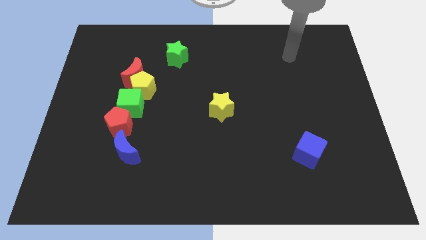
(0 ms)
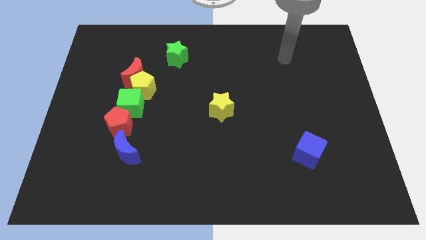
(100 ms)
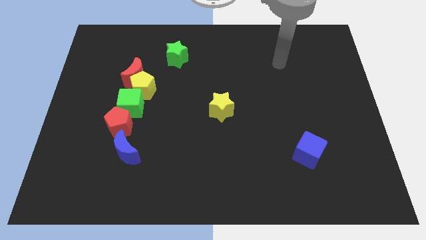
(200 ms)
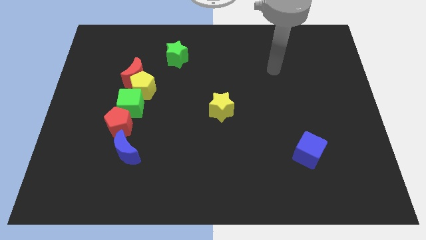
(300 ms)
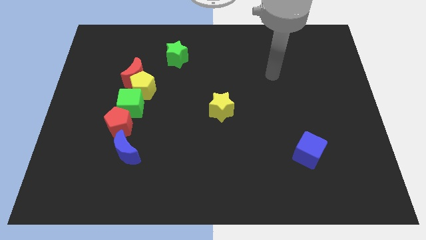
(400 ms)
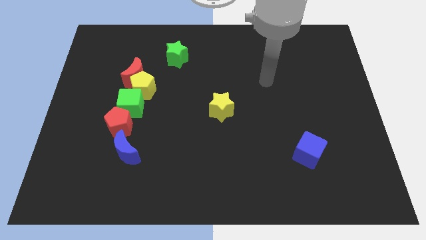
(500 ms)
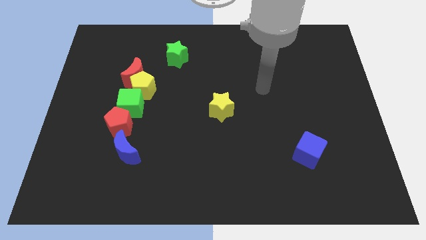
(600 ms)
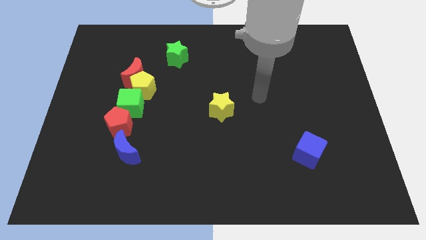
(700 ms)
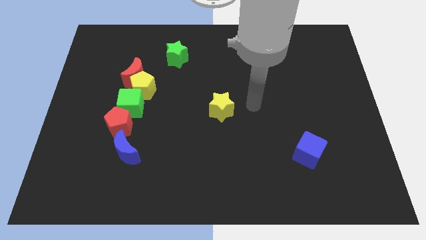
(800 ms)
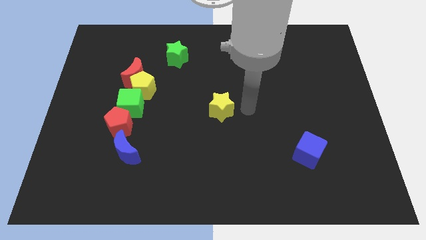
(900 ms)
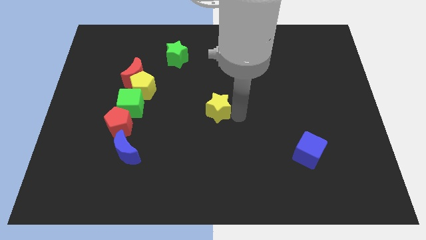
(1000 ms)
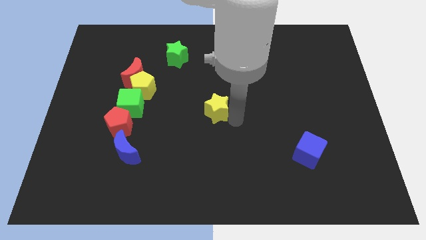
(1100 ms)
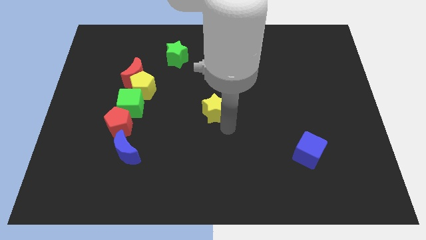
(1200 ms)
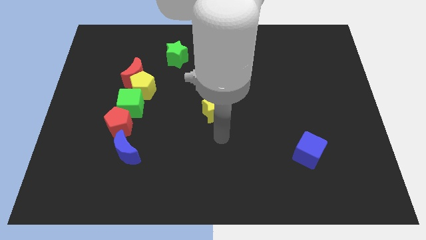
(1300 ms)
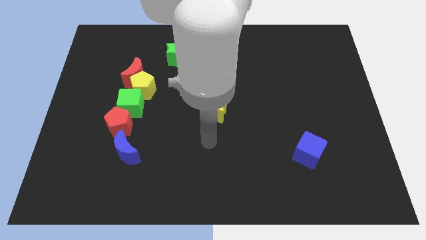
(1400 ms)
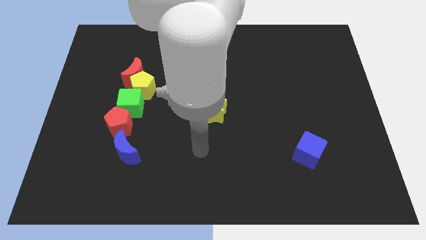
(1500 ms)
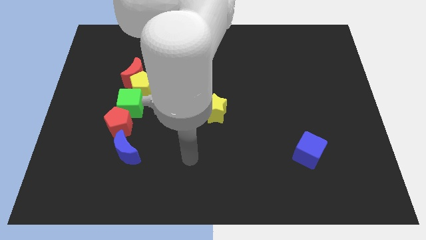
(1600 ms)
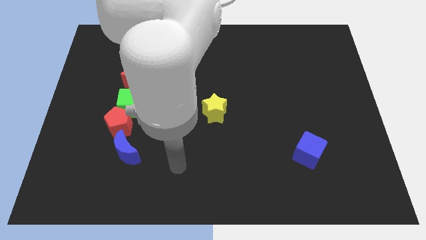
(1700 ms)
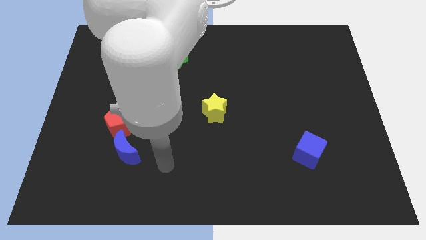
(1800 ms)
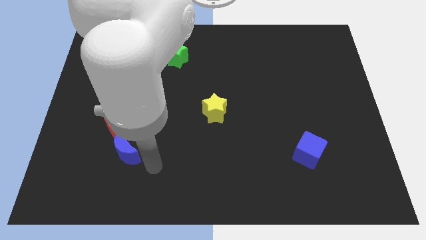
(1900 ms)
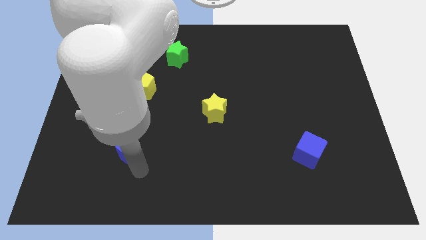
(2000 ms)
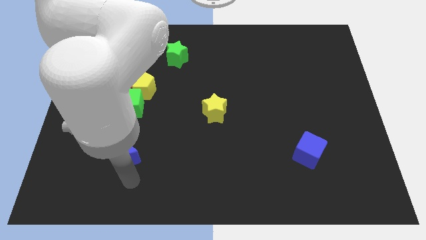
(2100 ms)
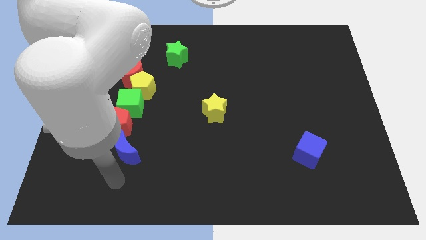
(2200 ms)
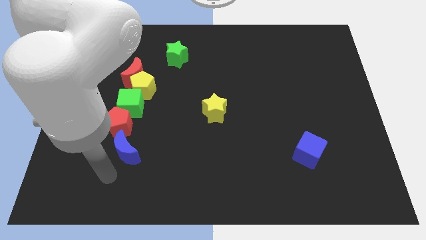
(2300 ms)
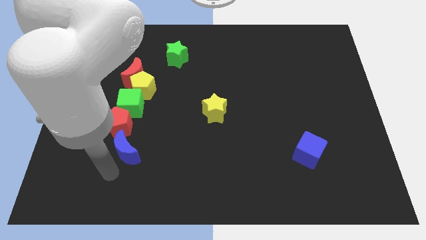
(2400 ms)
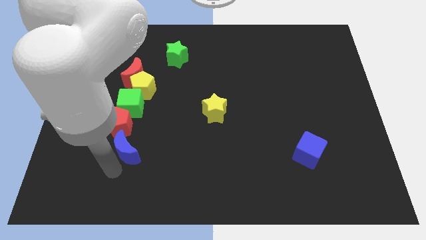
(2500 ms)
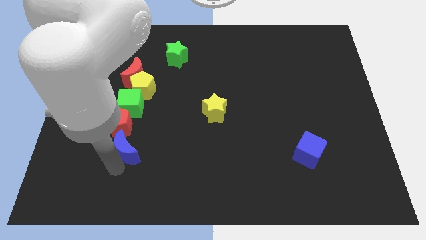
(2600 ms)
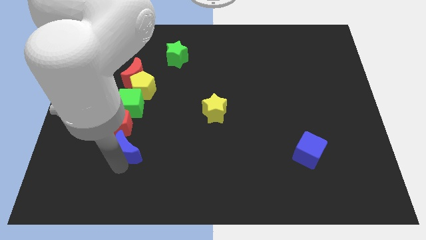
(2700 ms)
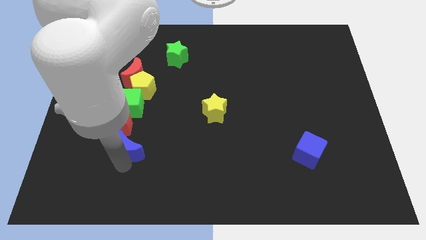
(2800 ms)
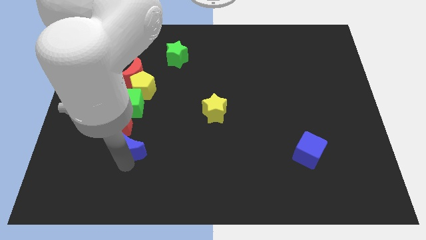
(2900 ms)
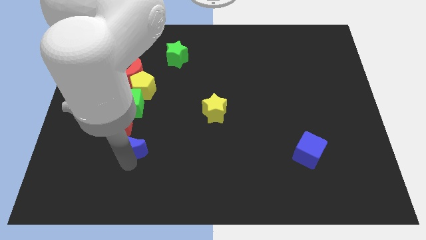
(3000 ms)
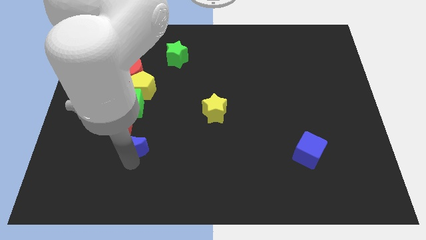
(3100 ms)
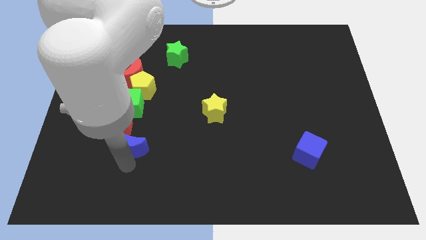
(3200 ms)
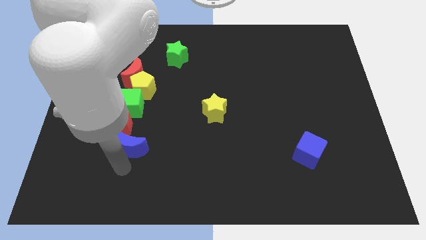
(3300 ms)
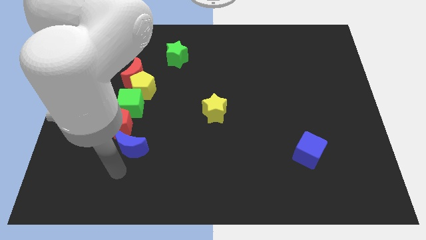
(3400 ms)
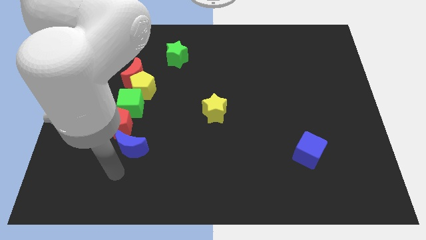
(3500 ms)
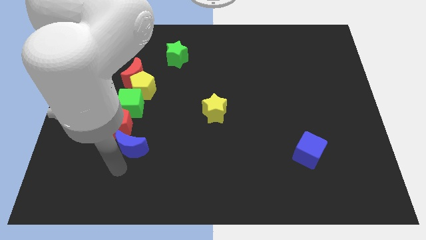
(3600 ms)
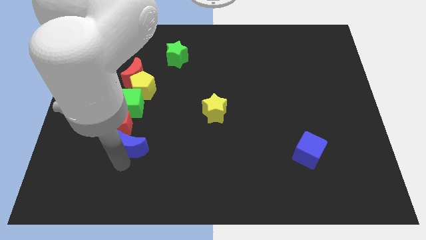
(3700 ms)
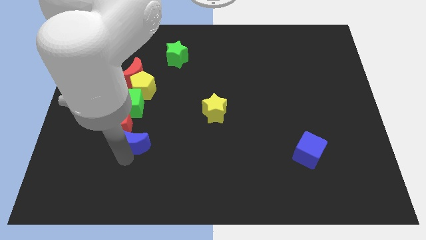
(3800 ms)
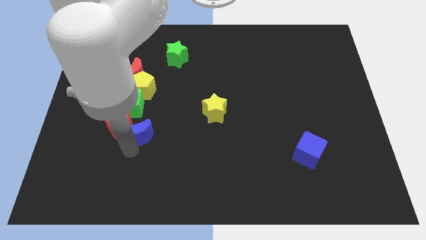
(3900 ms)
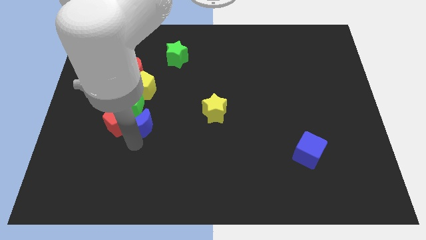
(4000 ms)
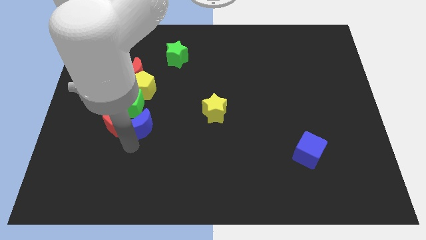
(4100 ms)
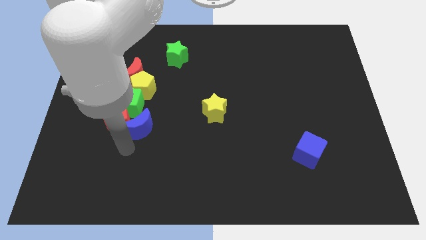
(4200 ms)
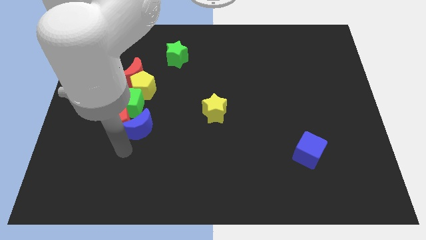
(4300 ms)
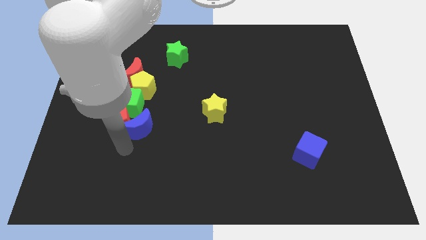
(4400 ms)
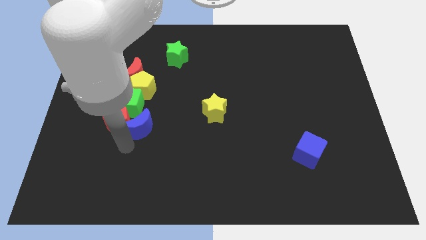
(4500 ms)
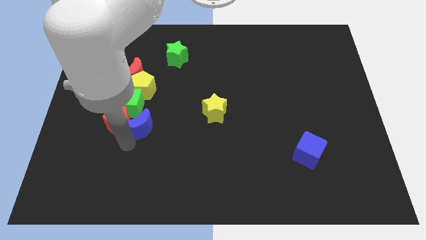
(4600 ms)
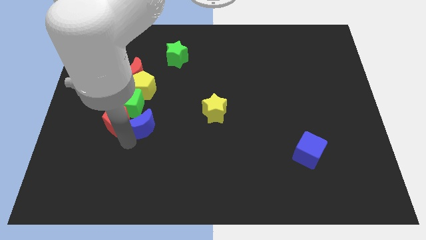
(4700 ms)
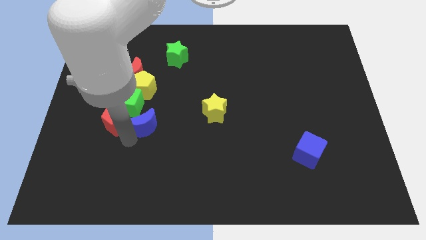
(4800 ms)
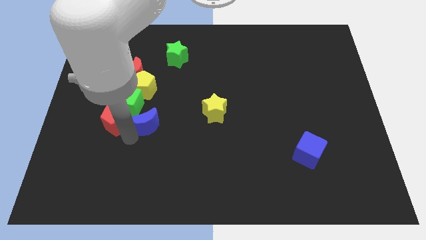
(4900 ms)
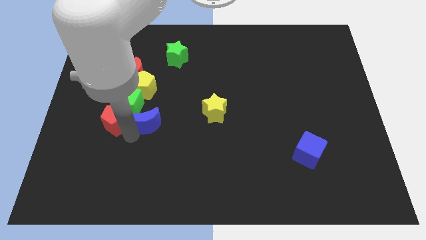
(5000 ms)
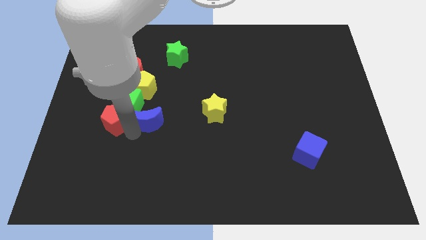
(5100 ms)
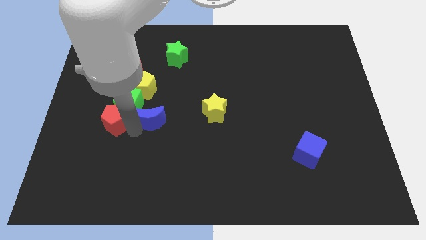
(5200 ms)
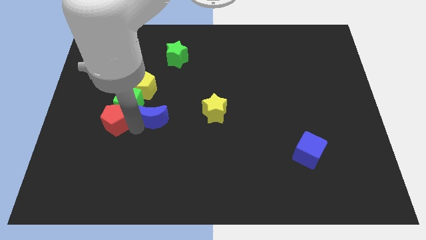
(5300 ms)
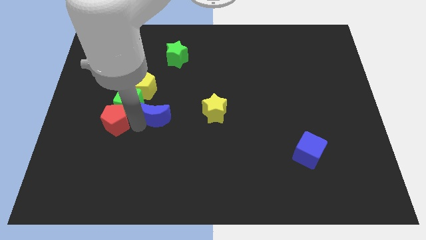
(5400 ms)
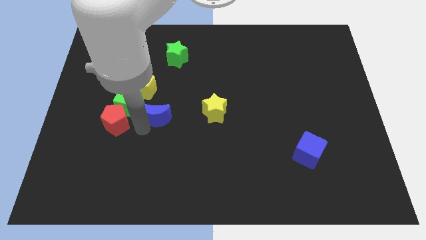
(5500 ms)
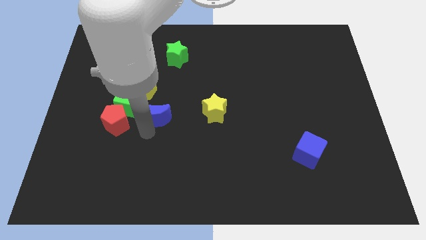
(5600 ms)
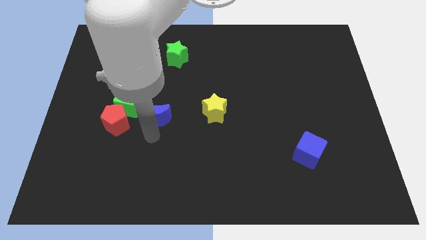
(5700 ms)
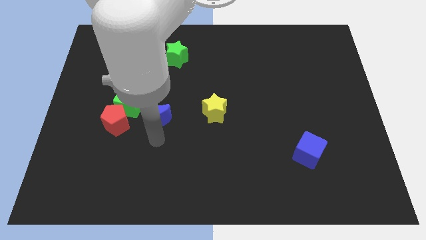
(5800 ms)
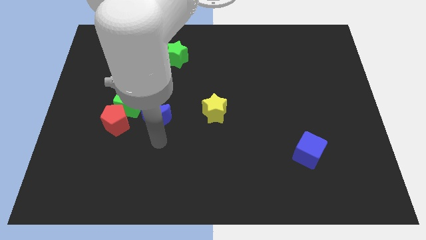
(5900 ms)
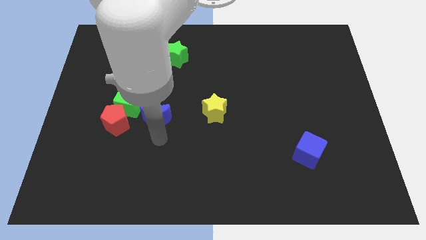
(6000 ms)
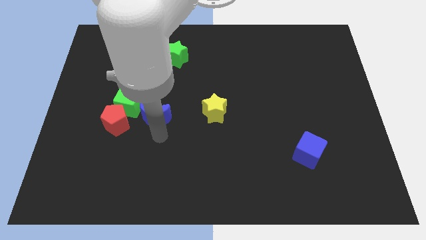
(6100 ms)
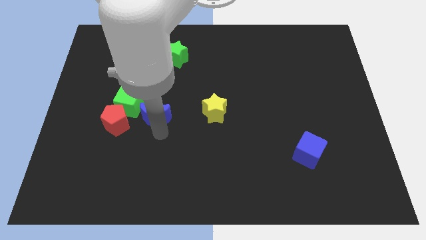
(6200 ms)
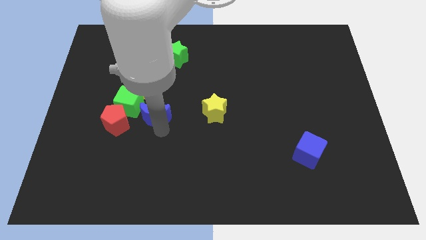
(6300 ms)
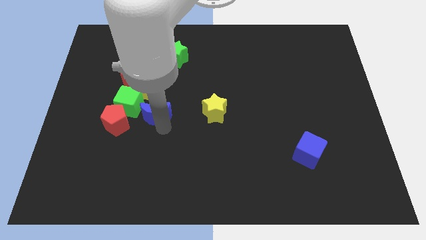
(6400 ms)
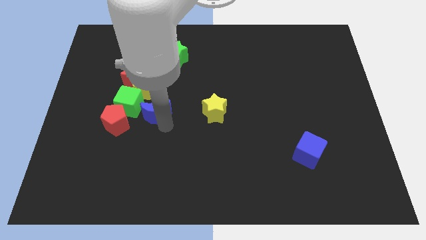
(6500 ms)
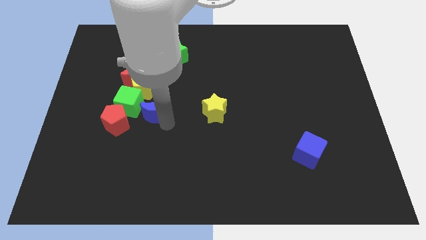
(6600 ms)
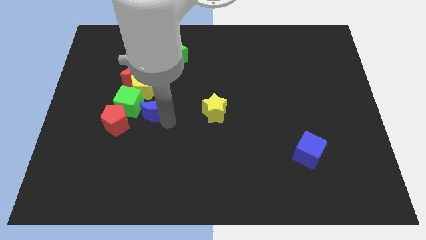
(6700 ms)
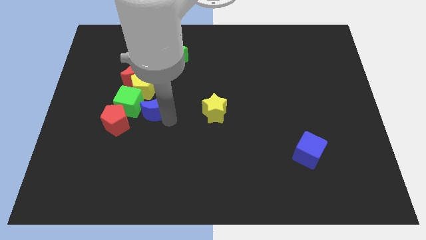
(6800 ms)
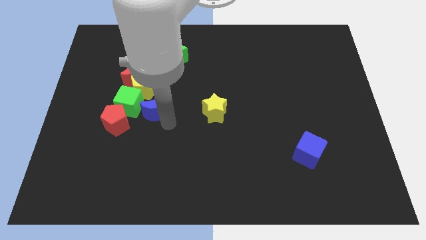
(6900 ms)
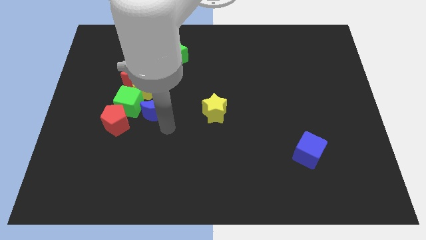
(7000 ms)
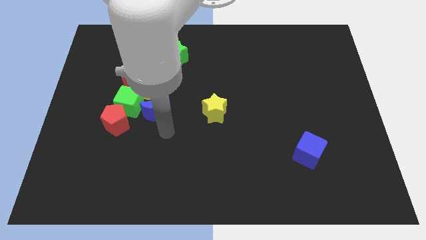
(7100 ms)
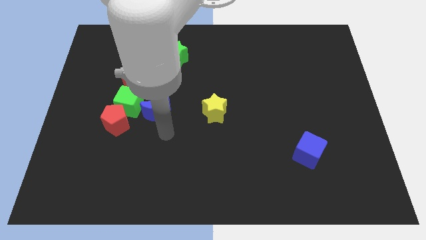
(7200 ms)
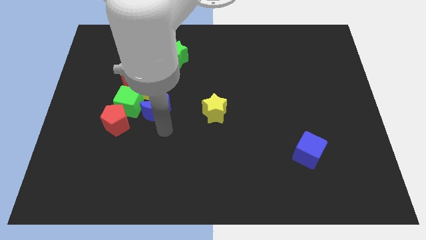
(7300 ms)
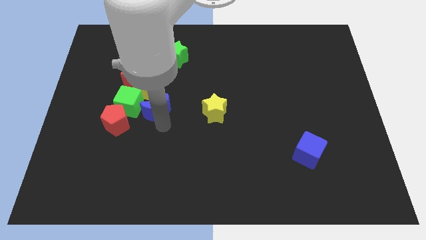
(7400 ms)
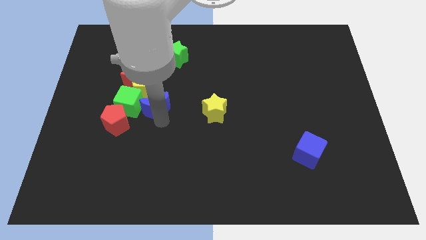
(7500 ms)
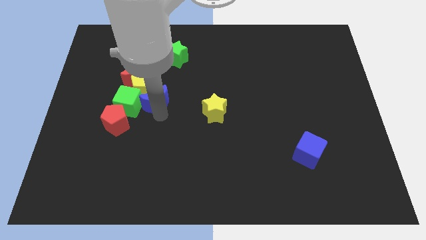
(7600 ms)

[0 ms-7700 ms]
slide the blue moon next to the yellow pentagon

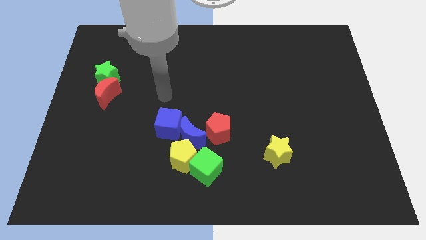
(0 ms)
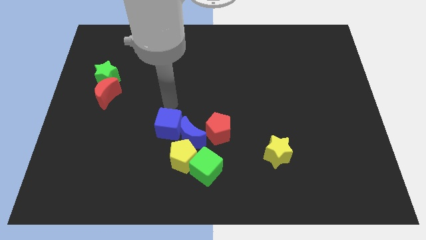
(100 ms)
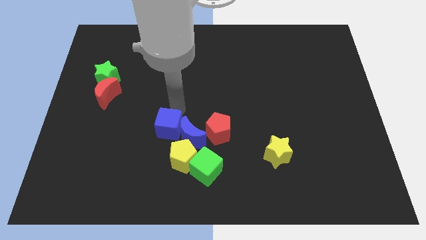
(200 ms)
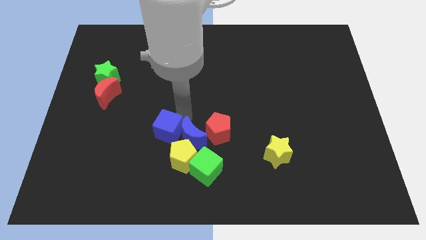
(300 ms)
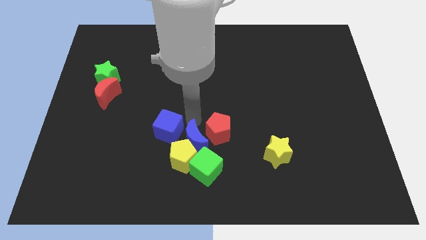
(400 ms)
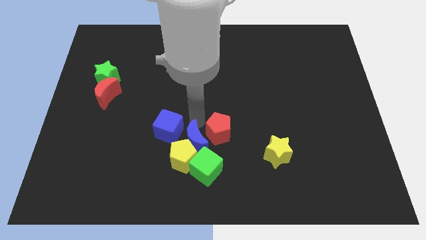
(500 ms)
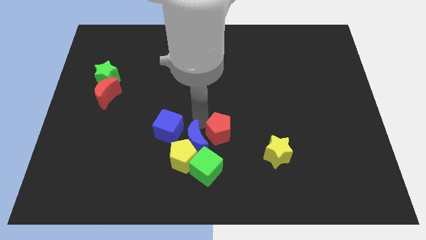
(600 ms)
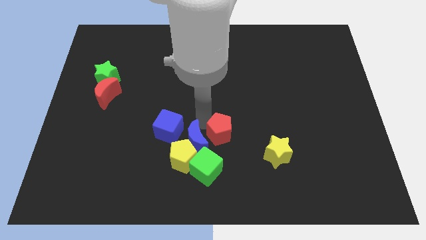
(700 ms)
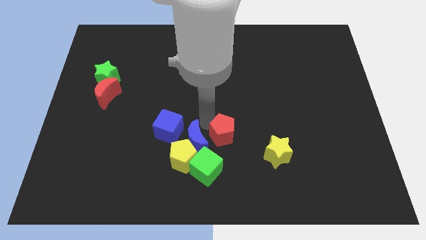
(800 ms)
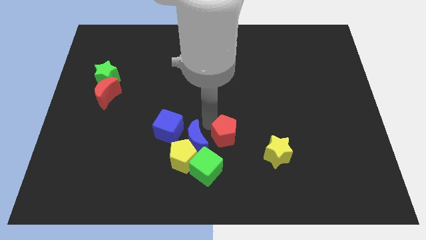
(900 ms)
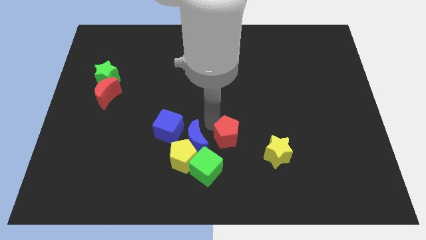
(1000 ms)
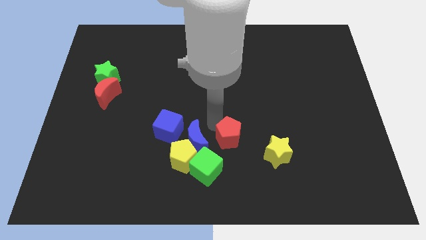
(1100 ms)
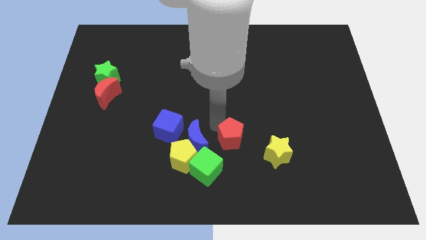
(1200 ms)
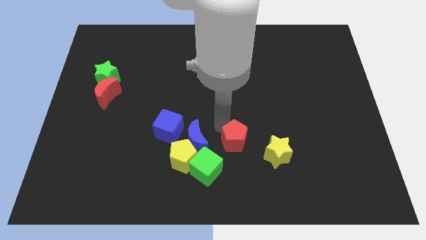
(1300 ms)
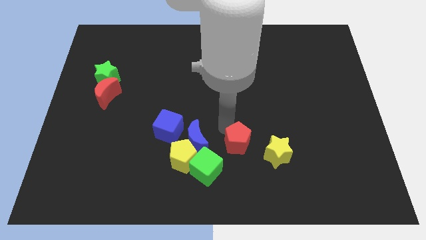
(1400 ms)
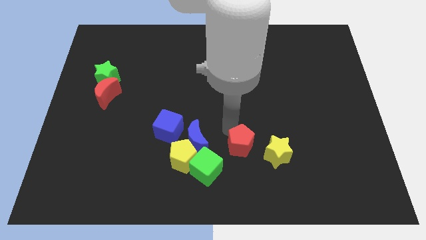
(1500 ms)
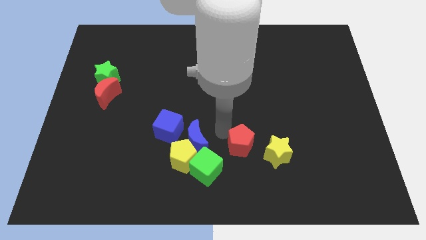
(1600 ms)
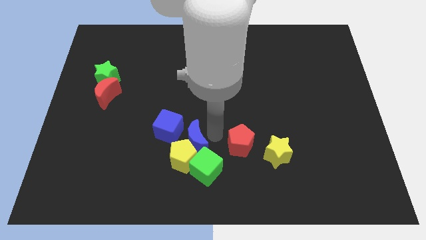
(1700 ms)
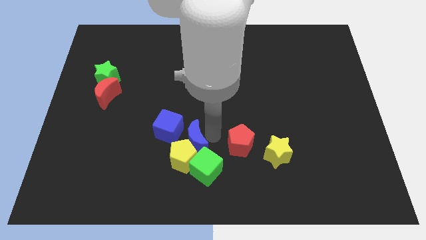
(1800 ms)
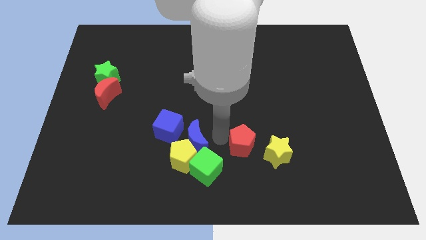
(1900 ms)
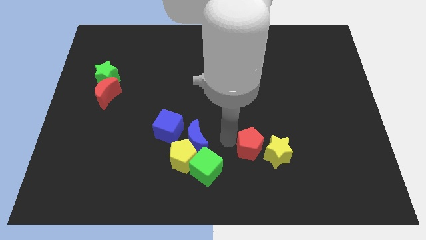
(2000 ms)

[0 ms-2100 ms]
put the red pentagon to the yellow star
